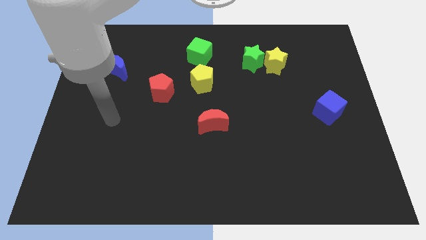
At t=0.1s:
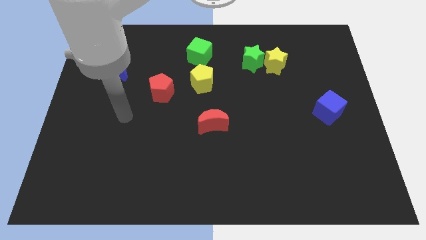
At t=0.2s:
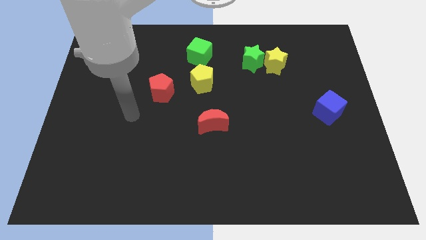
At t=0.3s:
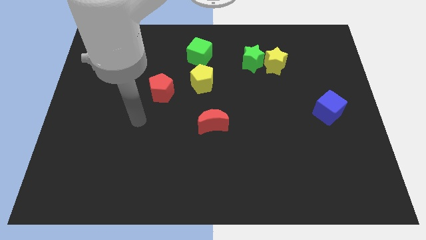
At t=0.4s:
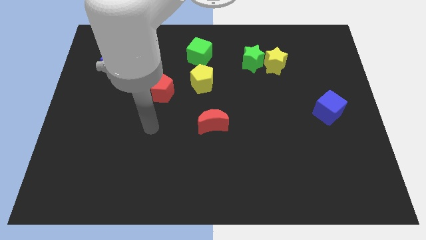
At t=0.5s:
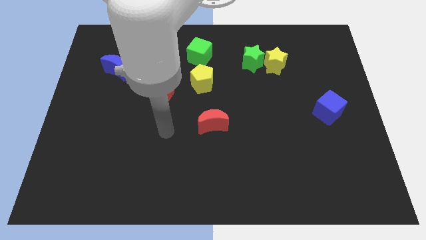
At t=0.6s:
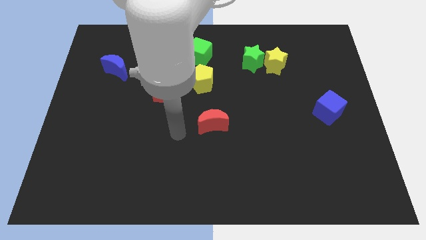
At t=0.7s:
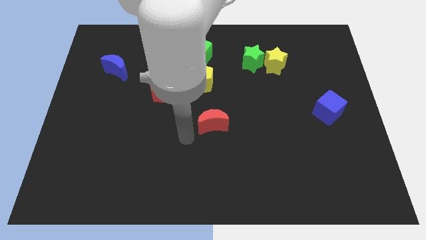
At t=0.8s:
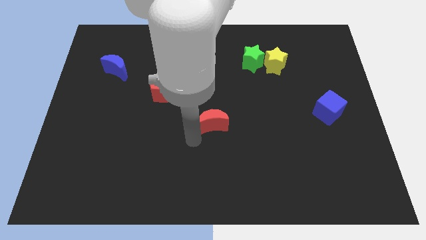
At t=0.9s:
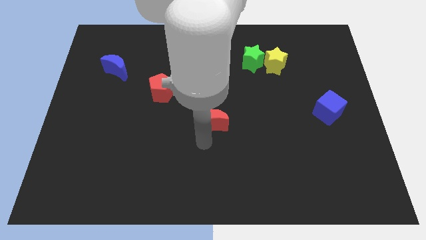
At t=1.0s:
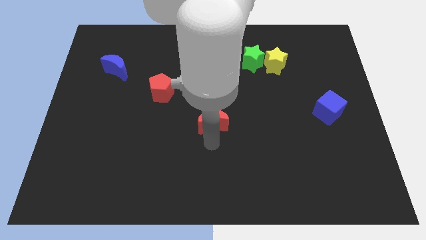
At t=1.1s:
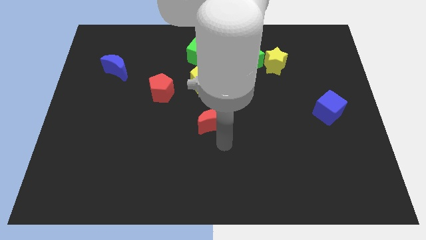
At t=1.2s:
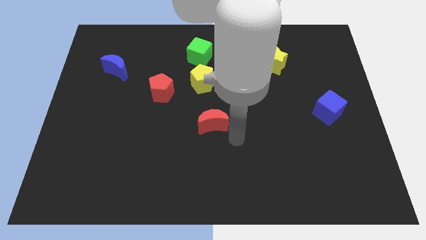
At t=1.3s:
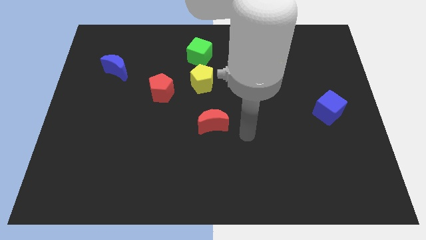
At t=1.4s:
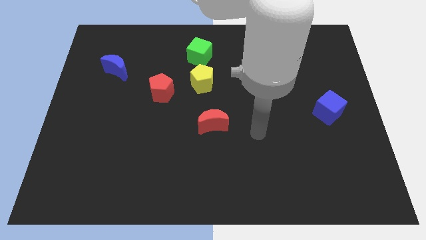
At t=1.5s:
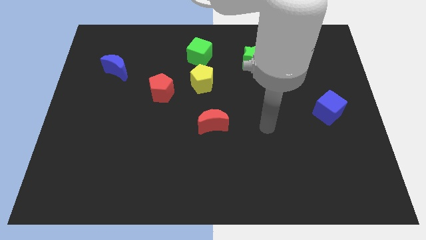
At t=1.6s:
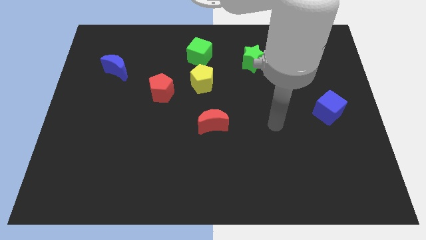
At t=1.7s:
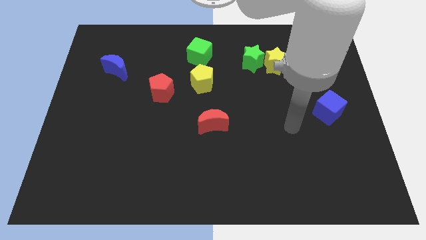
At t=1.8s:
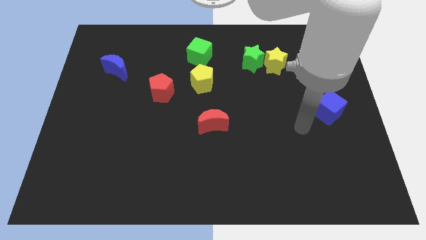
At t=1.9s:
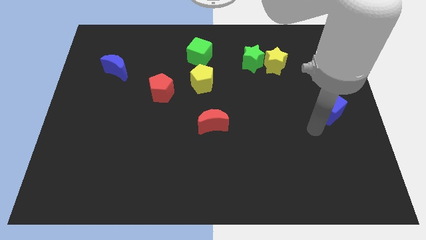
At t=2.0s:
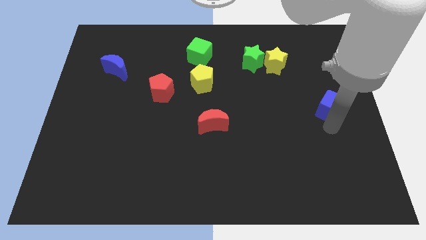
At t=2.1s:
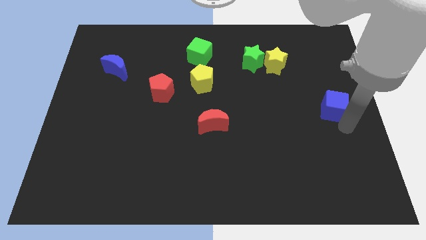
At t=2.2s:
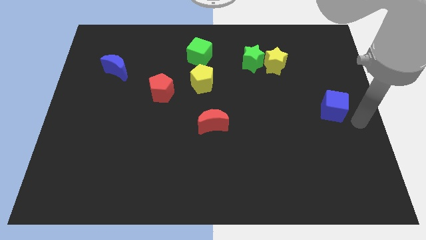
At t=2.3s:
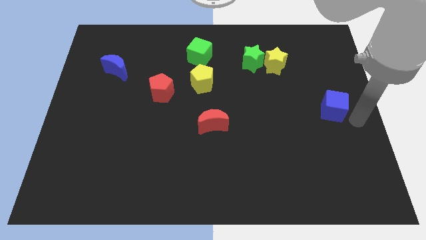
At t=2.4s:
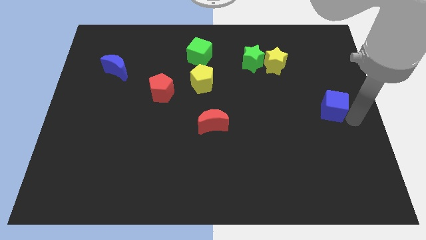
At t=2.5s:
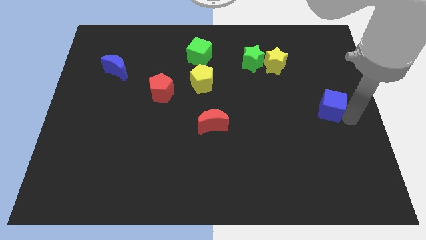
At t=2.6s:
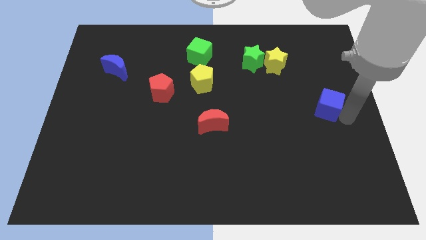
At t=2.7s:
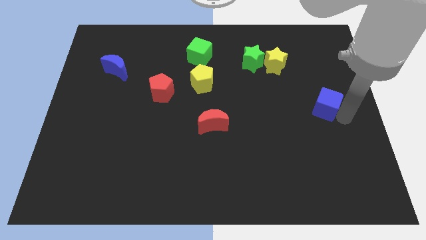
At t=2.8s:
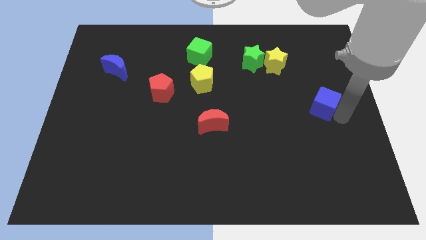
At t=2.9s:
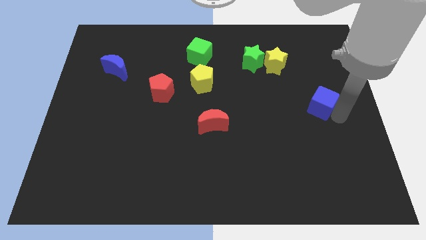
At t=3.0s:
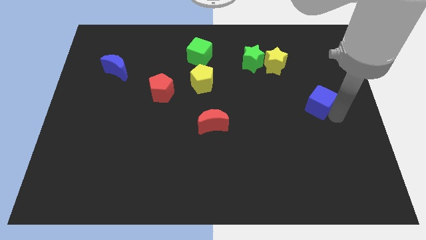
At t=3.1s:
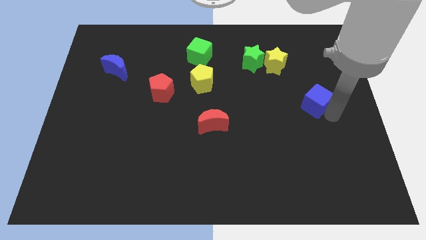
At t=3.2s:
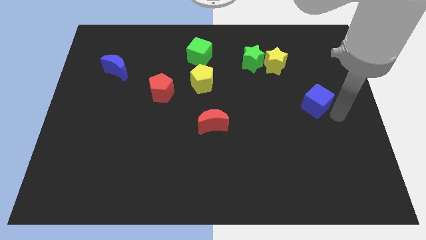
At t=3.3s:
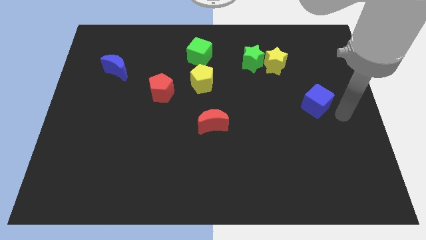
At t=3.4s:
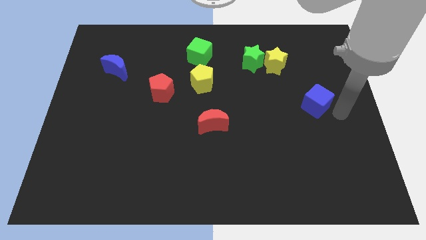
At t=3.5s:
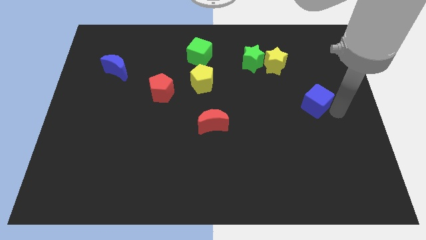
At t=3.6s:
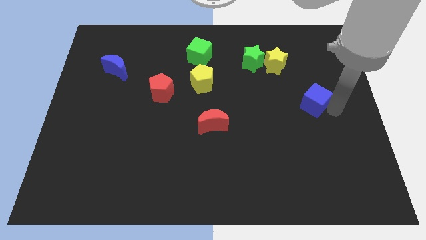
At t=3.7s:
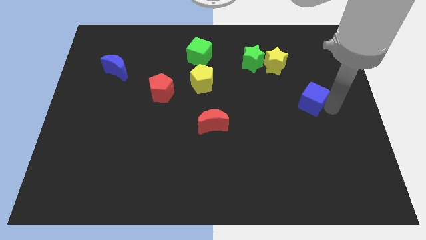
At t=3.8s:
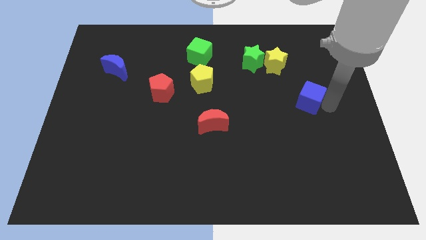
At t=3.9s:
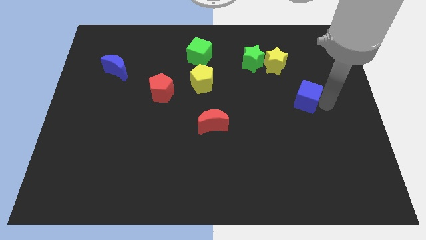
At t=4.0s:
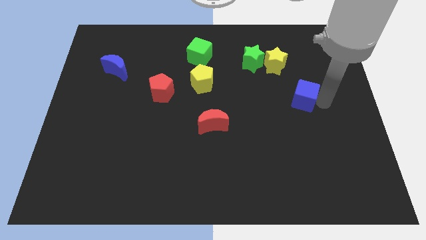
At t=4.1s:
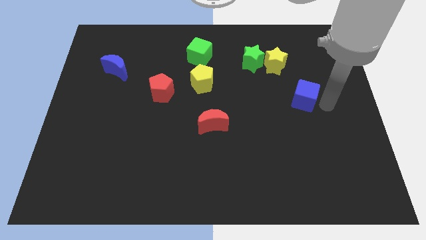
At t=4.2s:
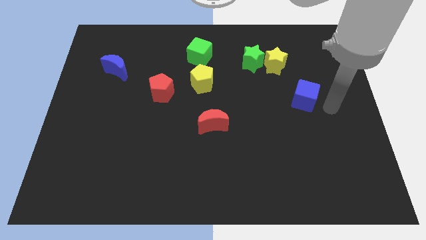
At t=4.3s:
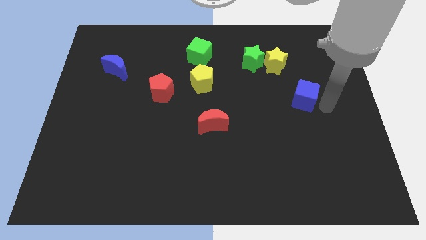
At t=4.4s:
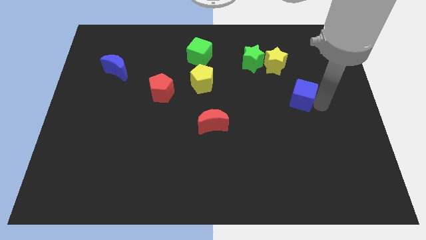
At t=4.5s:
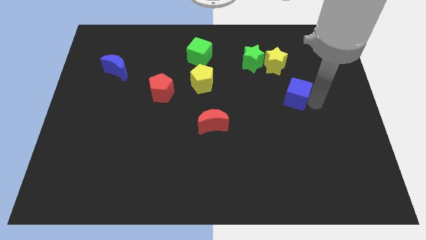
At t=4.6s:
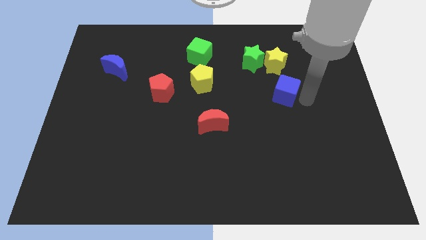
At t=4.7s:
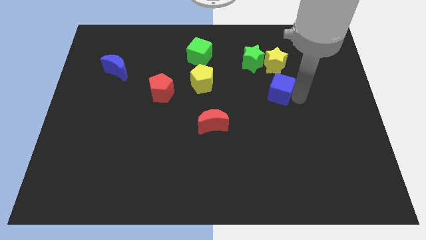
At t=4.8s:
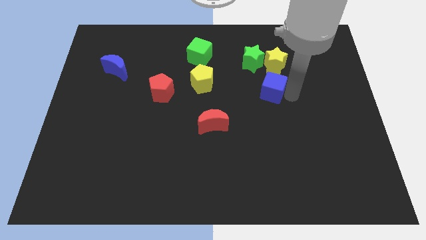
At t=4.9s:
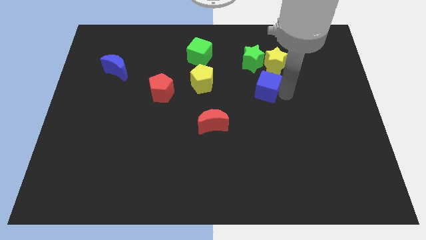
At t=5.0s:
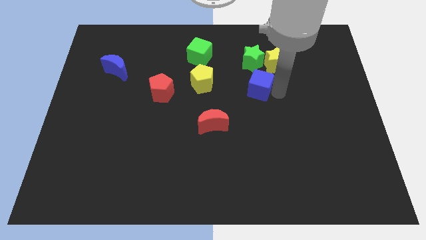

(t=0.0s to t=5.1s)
move the blue cube just right of the yellow pentagon

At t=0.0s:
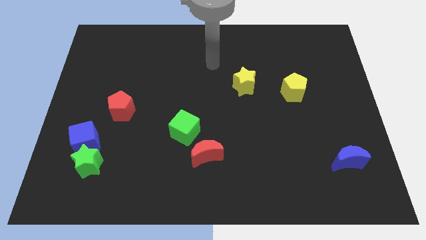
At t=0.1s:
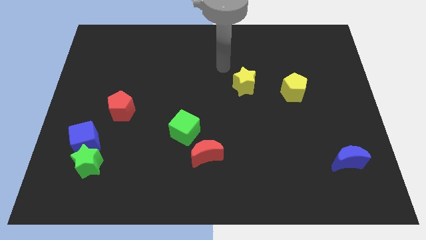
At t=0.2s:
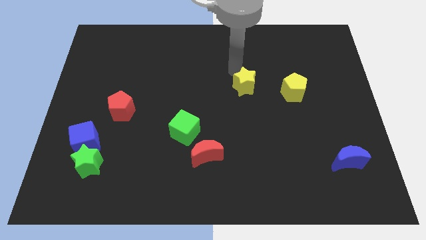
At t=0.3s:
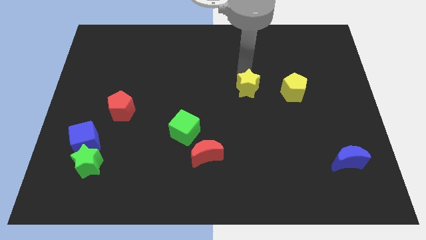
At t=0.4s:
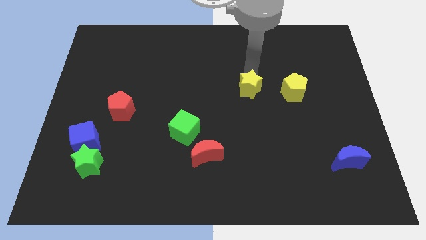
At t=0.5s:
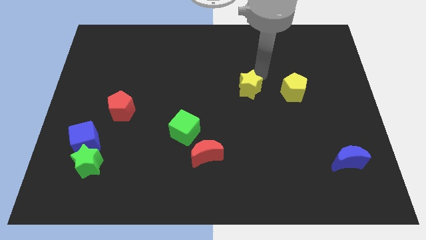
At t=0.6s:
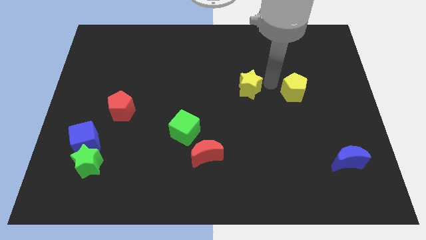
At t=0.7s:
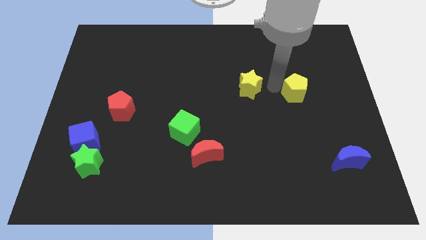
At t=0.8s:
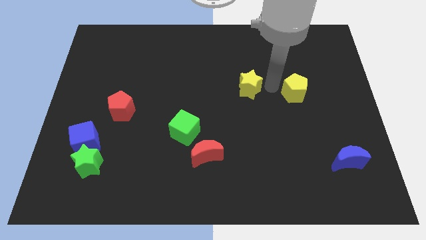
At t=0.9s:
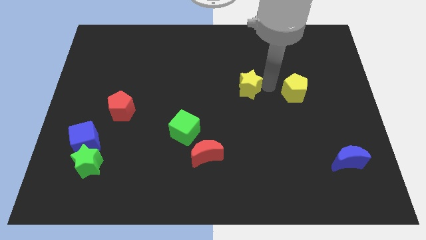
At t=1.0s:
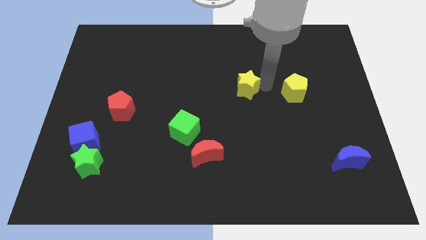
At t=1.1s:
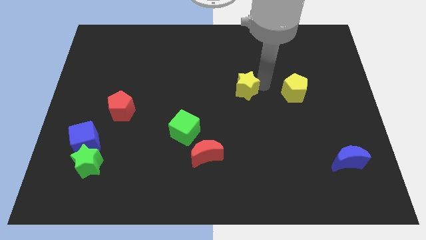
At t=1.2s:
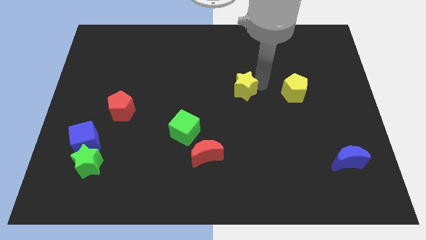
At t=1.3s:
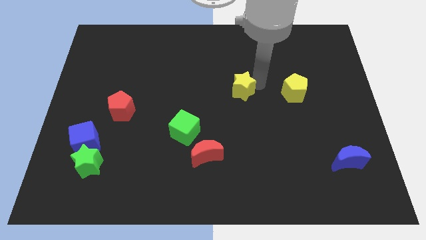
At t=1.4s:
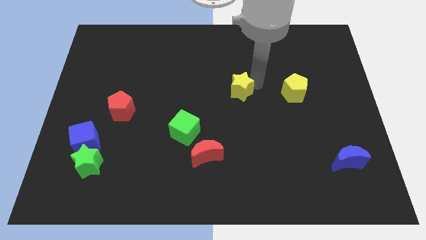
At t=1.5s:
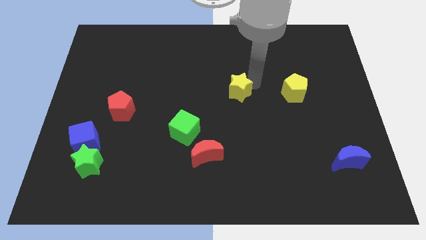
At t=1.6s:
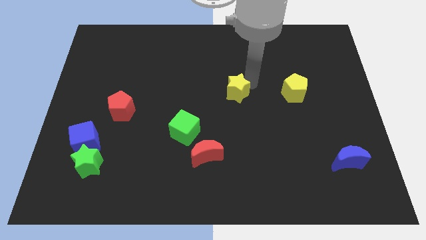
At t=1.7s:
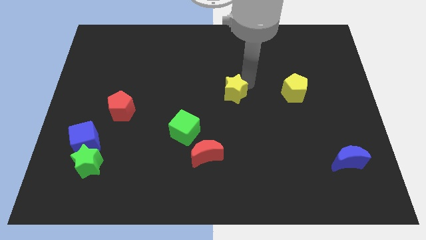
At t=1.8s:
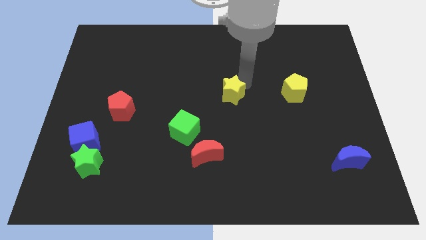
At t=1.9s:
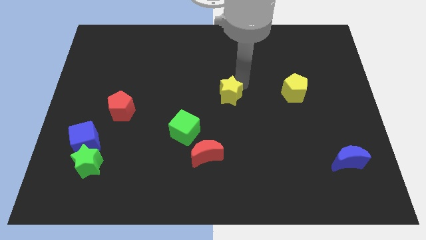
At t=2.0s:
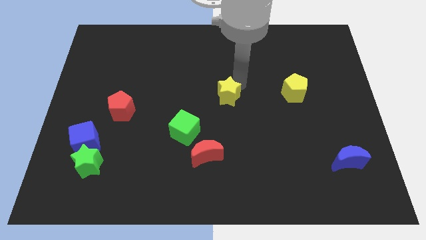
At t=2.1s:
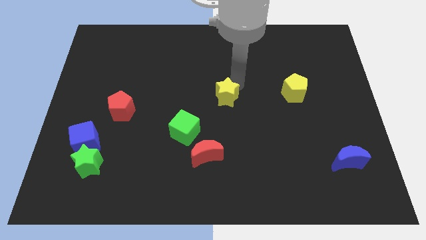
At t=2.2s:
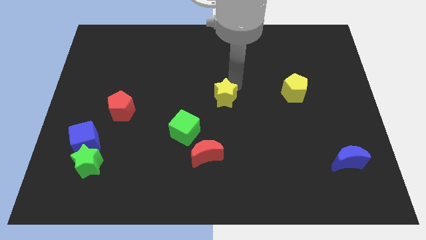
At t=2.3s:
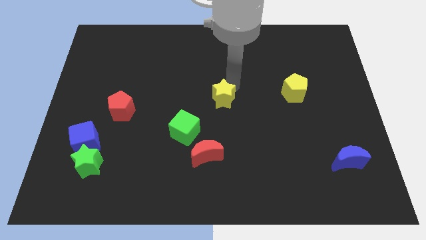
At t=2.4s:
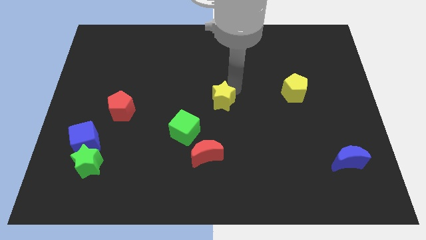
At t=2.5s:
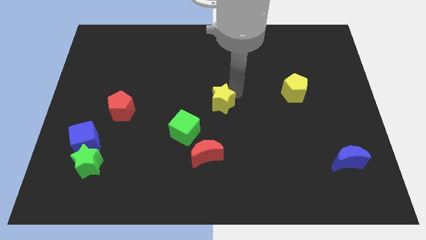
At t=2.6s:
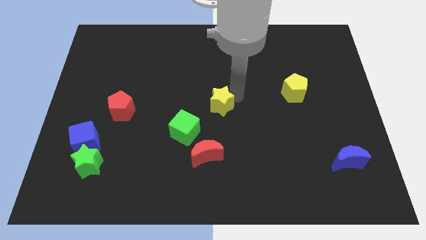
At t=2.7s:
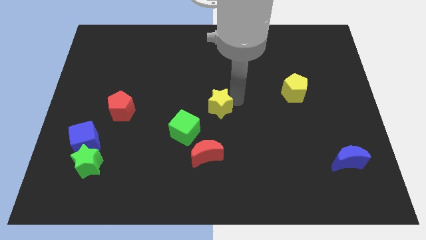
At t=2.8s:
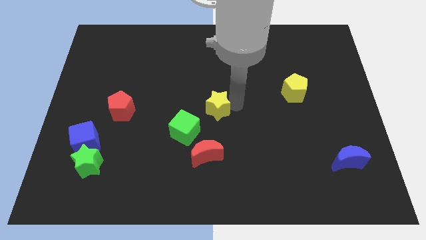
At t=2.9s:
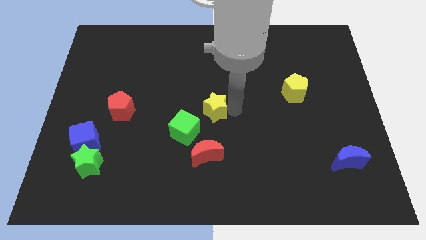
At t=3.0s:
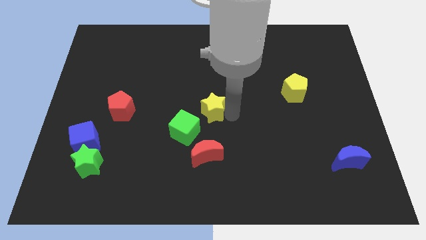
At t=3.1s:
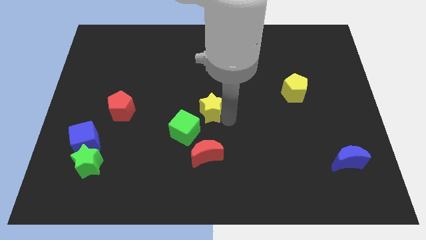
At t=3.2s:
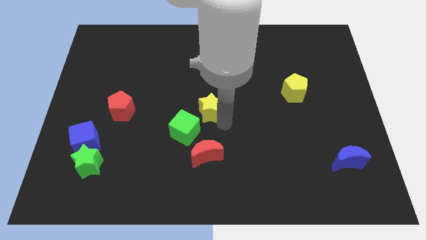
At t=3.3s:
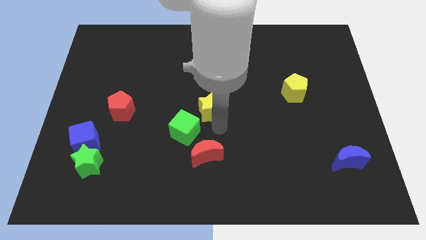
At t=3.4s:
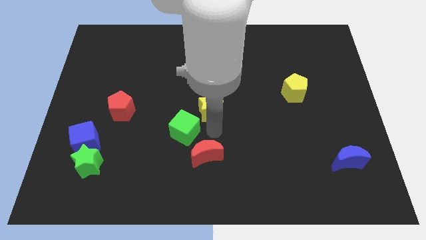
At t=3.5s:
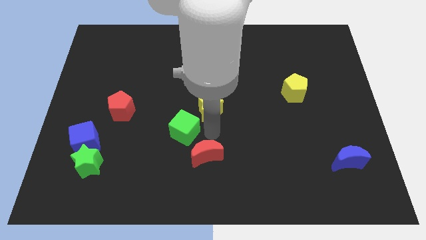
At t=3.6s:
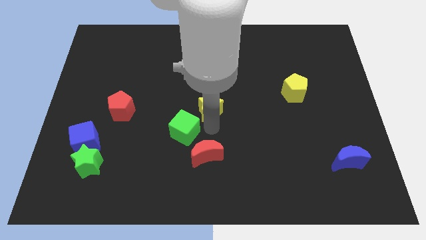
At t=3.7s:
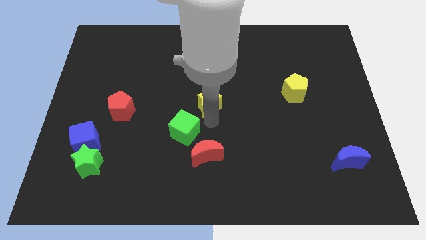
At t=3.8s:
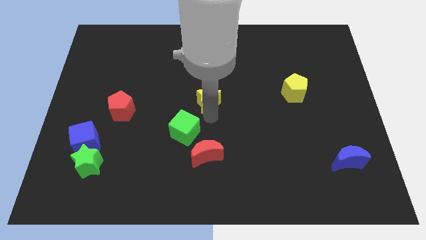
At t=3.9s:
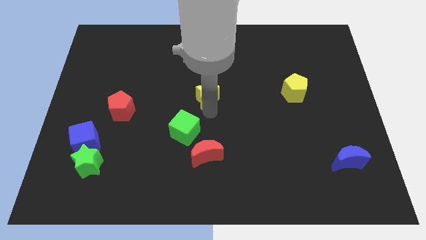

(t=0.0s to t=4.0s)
put the yellow star to the top side of the green cube
